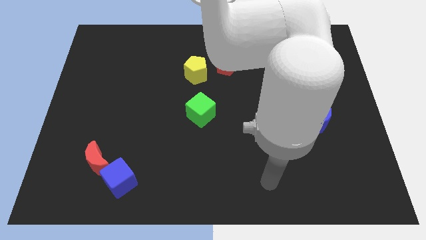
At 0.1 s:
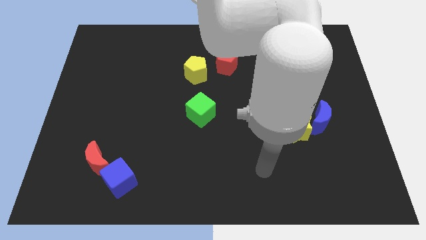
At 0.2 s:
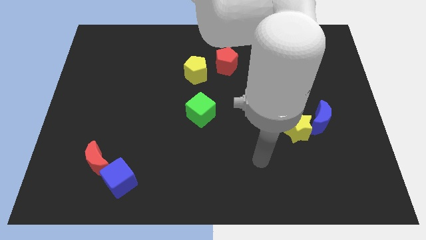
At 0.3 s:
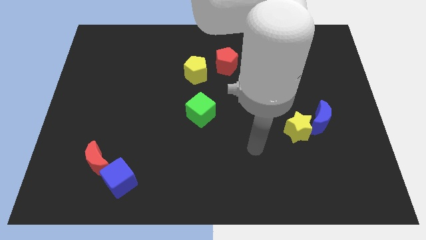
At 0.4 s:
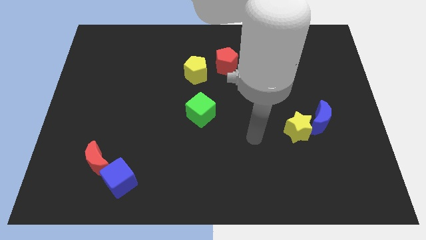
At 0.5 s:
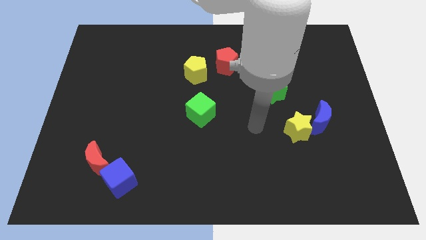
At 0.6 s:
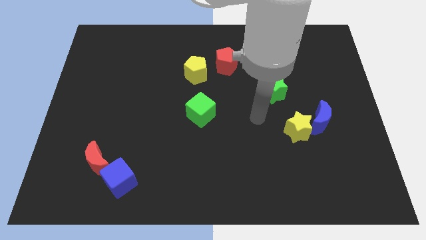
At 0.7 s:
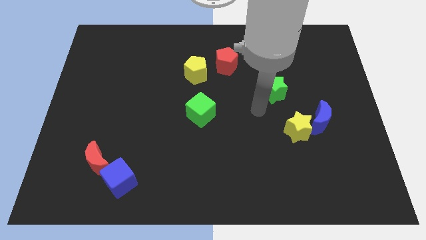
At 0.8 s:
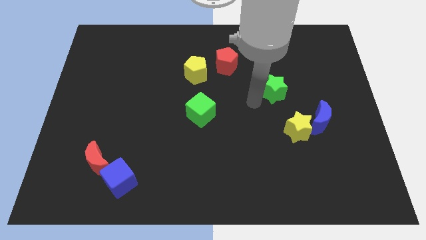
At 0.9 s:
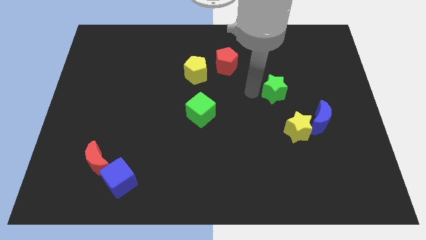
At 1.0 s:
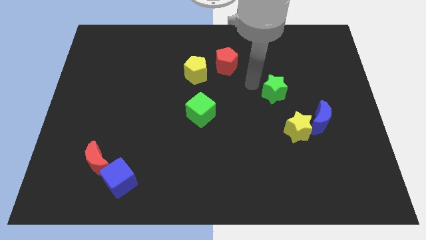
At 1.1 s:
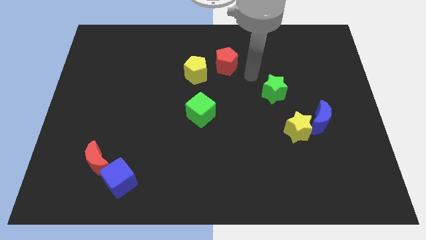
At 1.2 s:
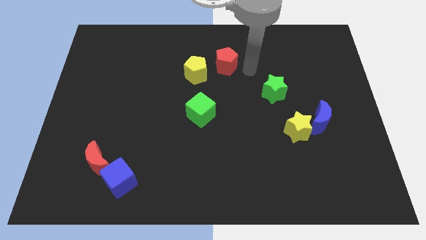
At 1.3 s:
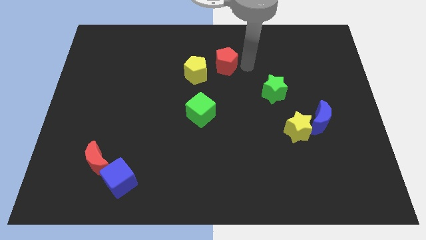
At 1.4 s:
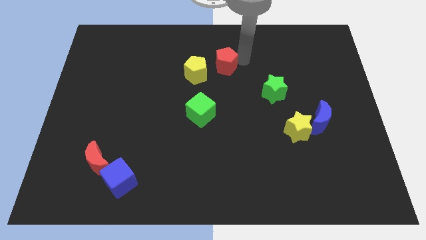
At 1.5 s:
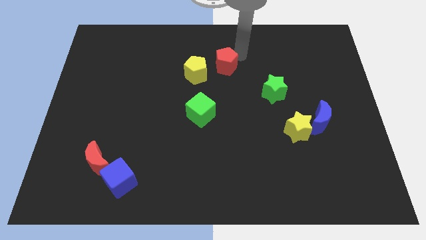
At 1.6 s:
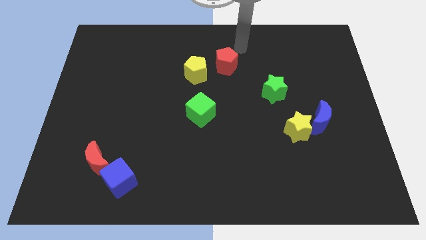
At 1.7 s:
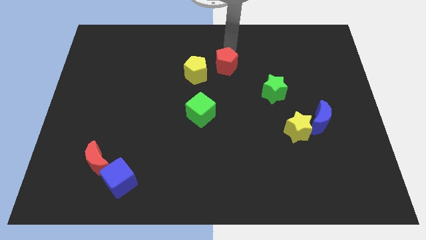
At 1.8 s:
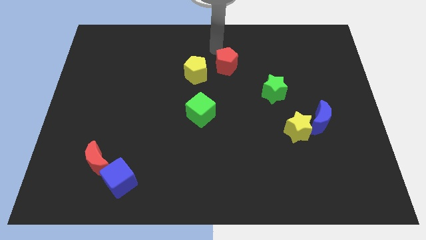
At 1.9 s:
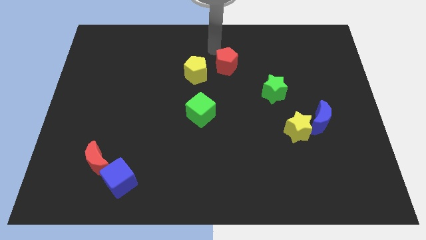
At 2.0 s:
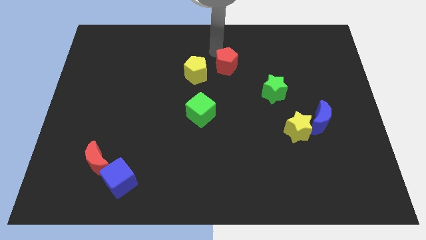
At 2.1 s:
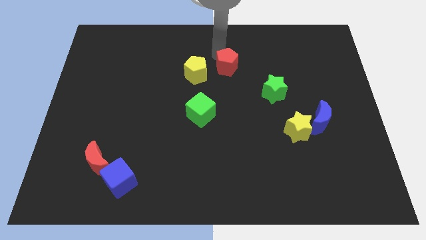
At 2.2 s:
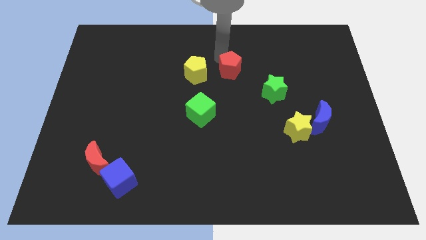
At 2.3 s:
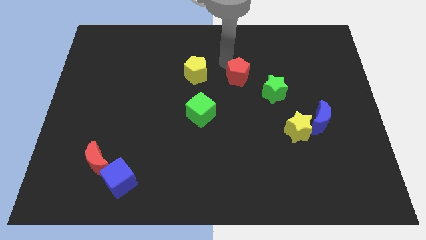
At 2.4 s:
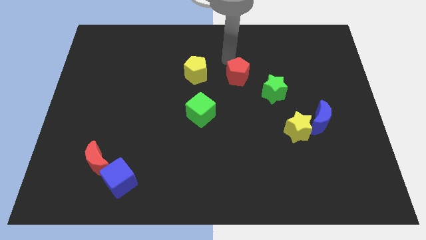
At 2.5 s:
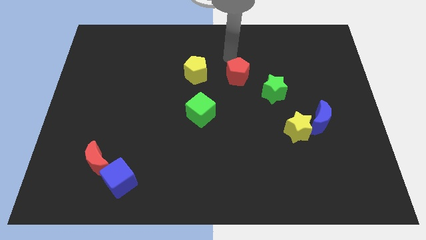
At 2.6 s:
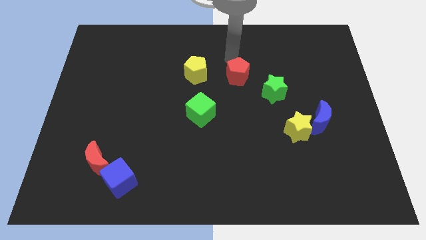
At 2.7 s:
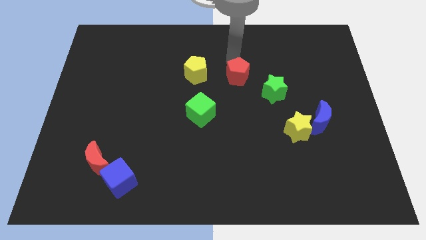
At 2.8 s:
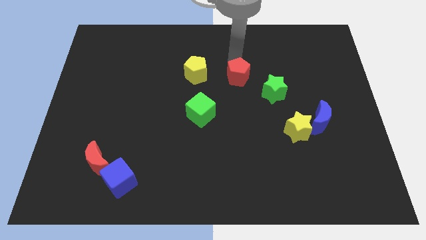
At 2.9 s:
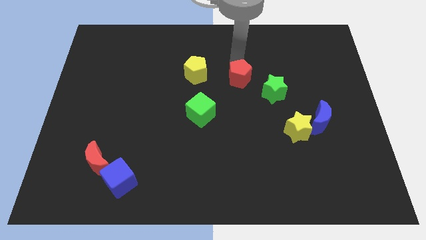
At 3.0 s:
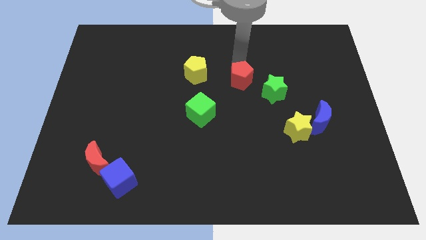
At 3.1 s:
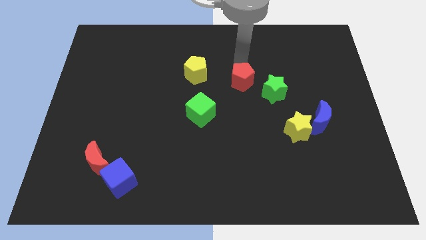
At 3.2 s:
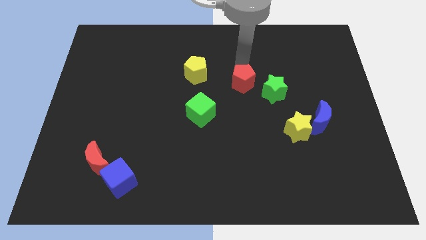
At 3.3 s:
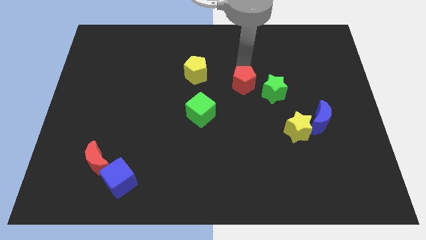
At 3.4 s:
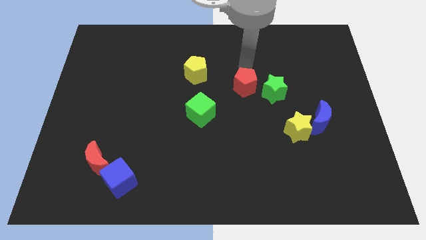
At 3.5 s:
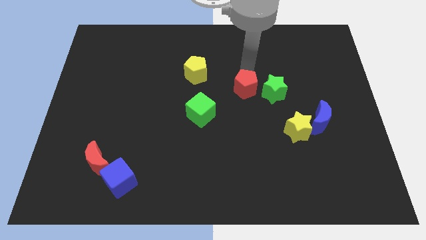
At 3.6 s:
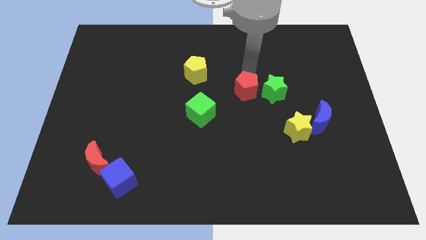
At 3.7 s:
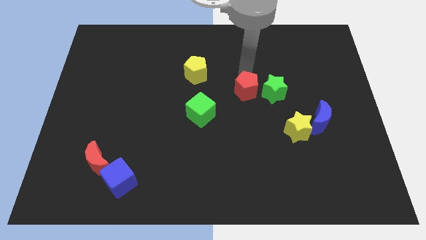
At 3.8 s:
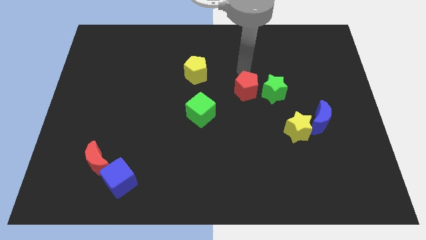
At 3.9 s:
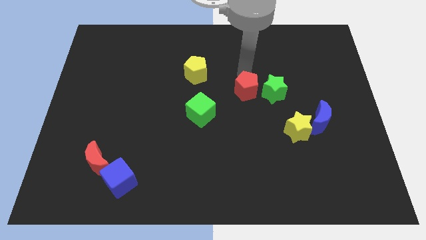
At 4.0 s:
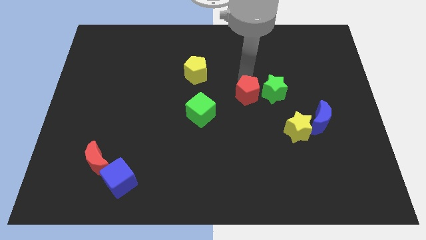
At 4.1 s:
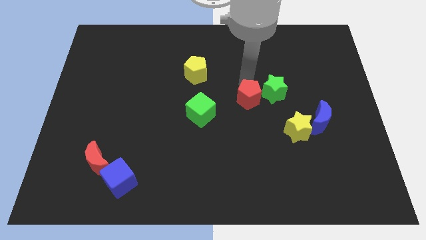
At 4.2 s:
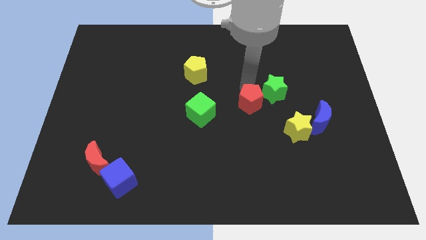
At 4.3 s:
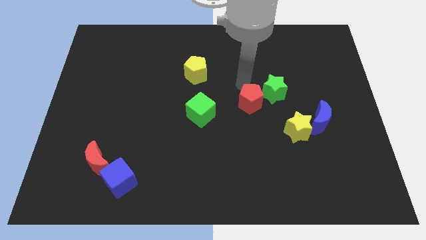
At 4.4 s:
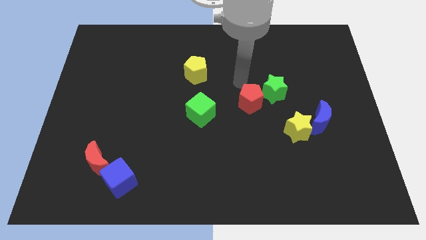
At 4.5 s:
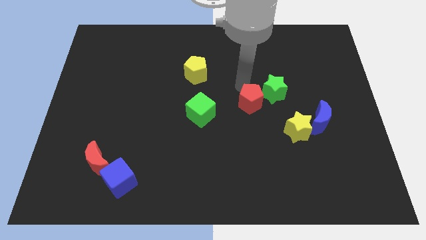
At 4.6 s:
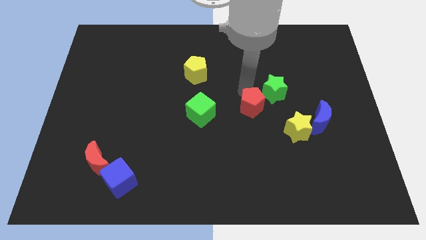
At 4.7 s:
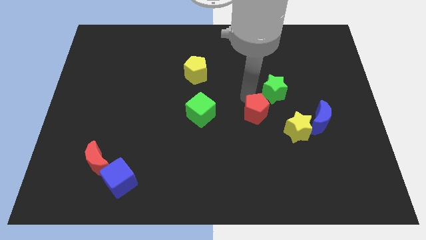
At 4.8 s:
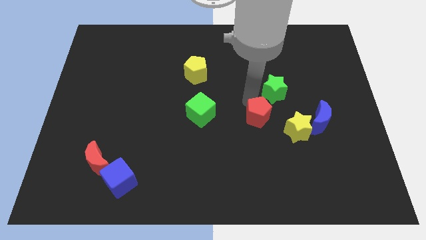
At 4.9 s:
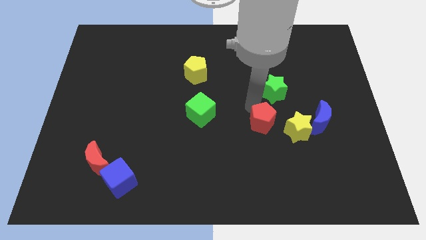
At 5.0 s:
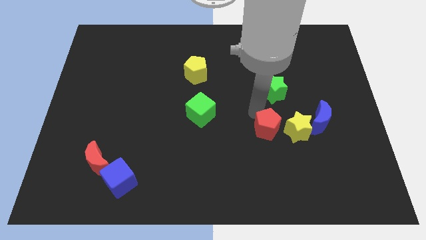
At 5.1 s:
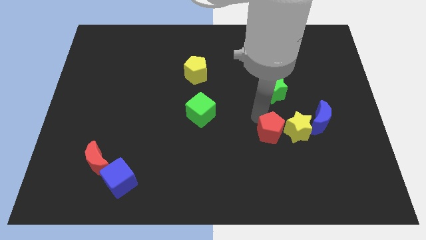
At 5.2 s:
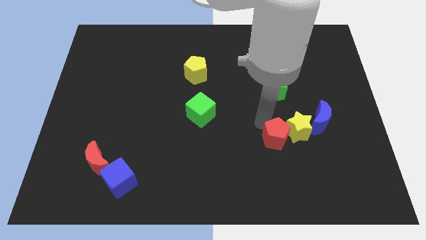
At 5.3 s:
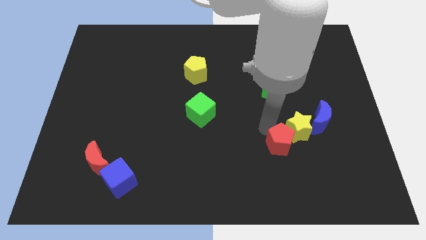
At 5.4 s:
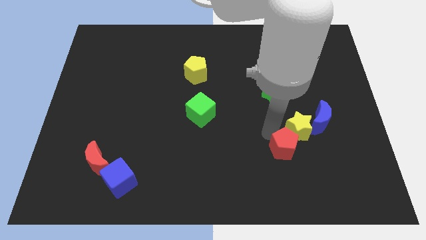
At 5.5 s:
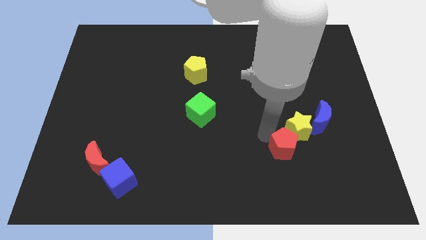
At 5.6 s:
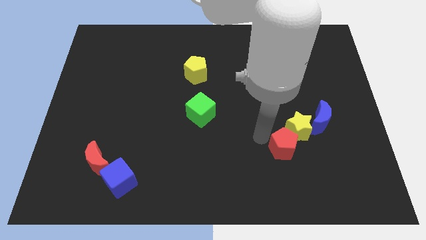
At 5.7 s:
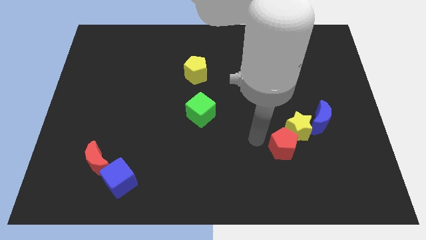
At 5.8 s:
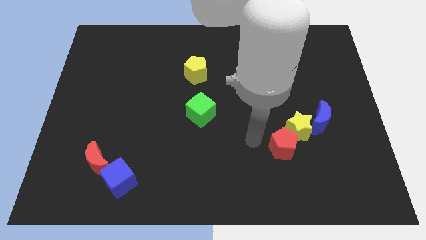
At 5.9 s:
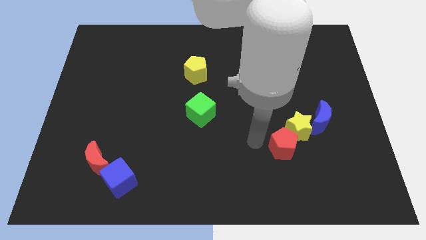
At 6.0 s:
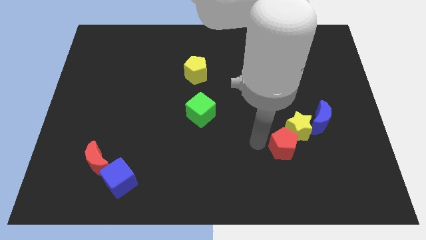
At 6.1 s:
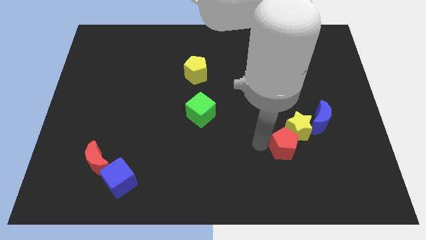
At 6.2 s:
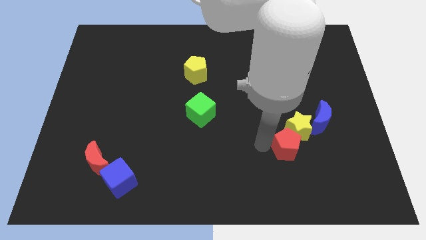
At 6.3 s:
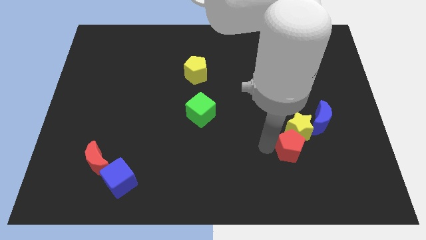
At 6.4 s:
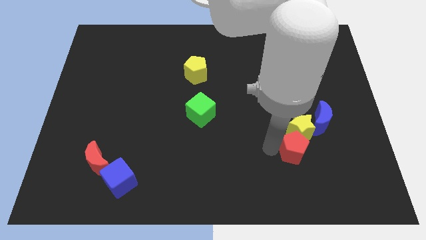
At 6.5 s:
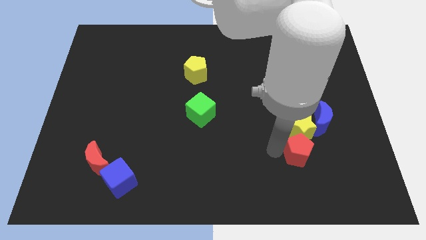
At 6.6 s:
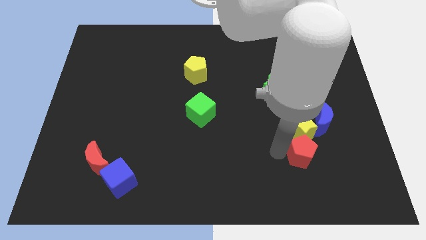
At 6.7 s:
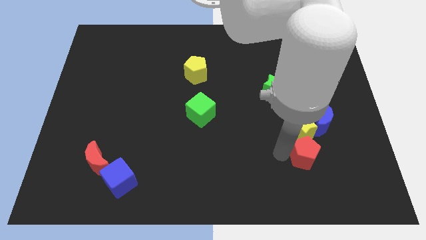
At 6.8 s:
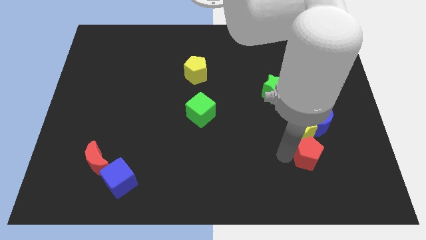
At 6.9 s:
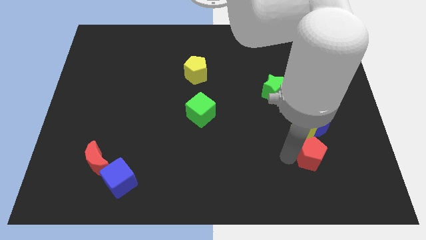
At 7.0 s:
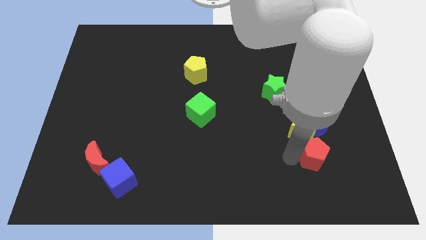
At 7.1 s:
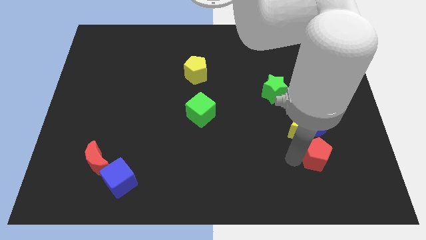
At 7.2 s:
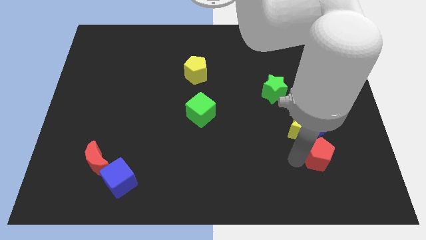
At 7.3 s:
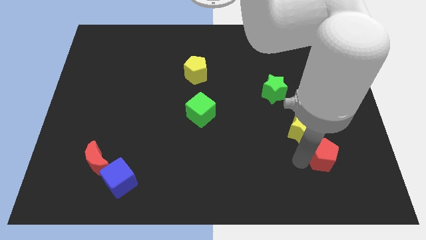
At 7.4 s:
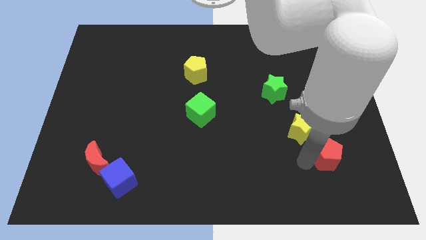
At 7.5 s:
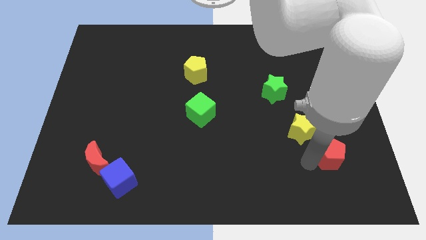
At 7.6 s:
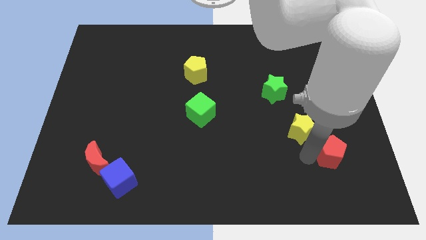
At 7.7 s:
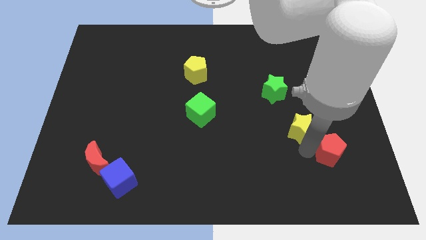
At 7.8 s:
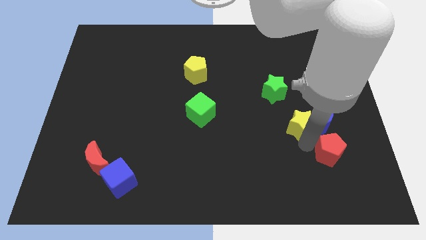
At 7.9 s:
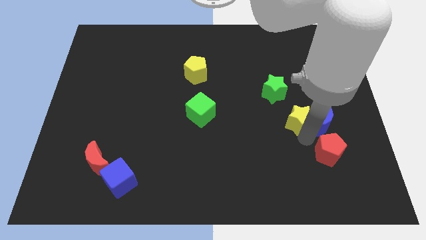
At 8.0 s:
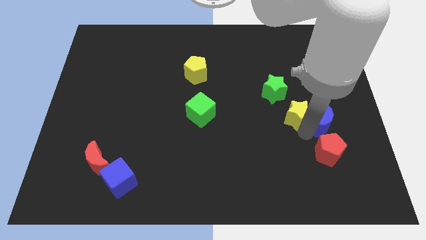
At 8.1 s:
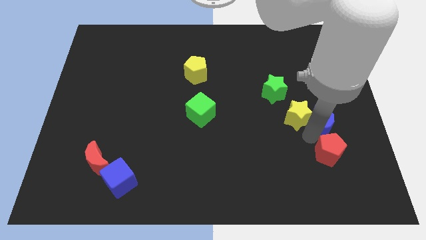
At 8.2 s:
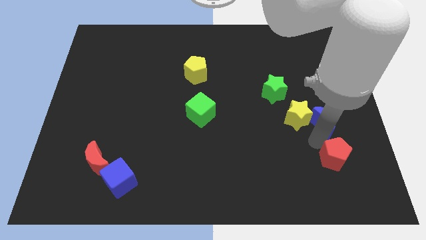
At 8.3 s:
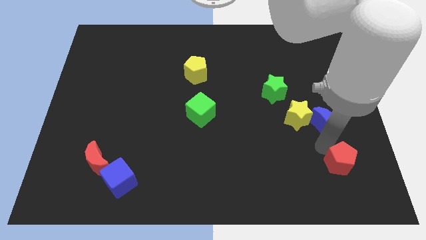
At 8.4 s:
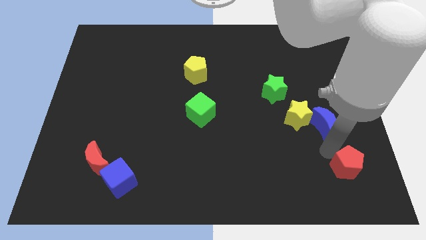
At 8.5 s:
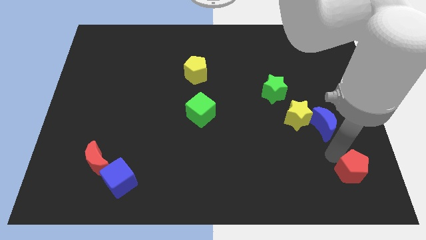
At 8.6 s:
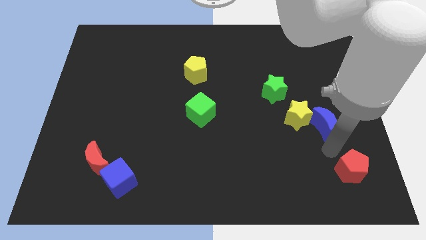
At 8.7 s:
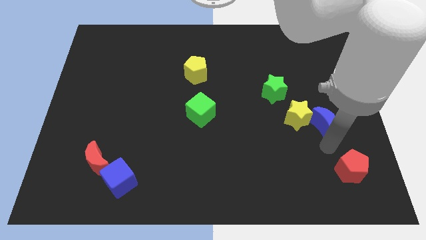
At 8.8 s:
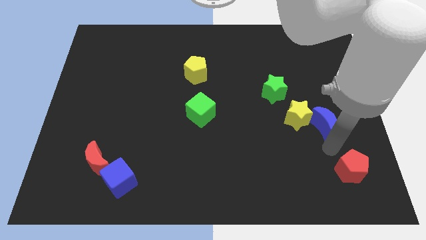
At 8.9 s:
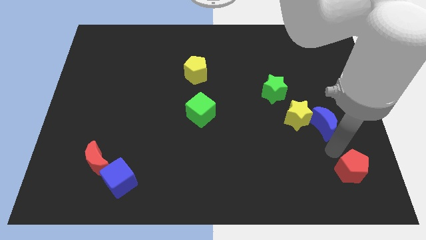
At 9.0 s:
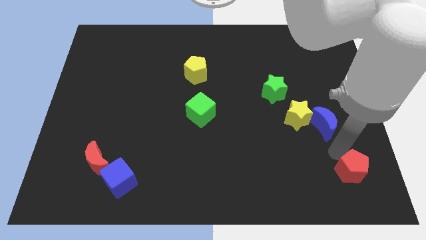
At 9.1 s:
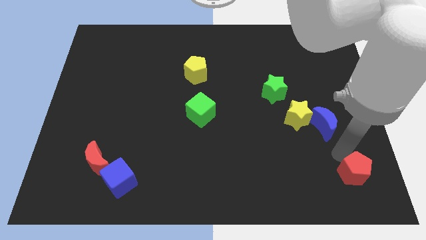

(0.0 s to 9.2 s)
push the red pentagon to the bottom right corner
